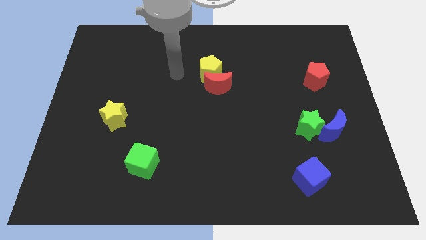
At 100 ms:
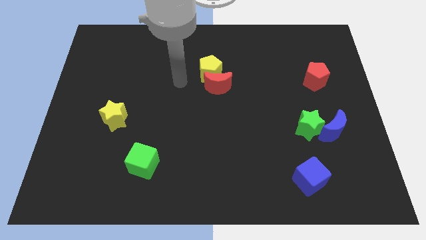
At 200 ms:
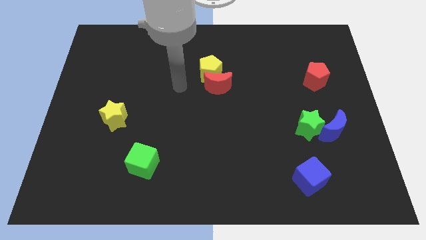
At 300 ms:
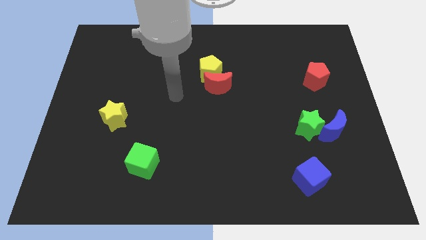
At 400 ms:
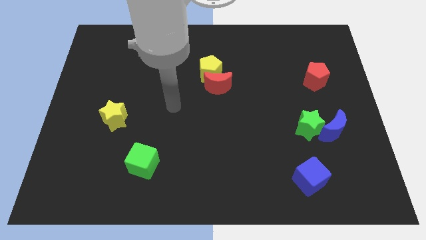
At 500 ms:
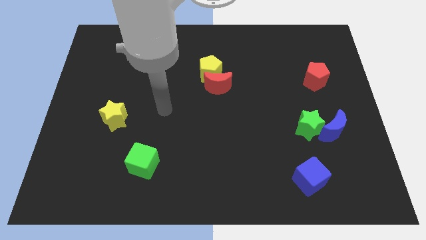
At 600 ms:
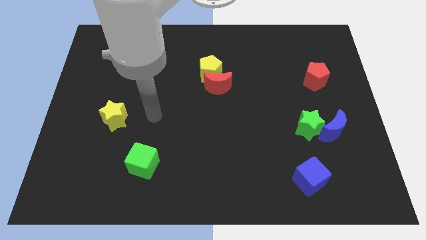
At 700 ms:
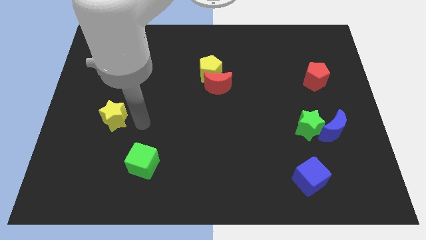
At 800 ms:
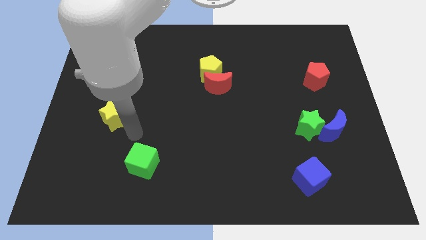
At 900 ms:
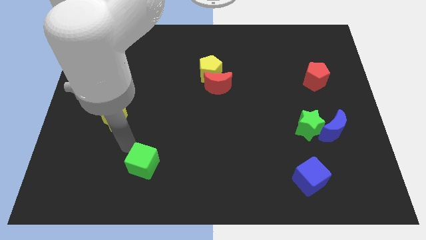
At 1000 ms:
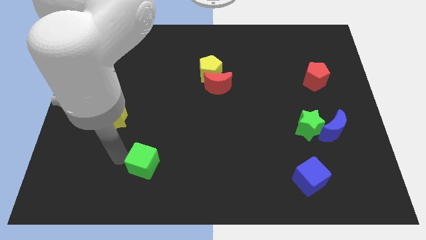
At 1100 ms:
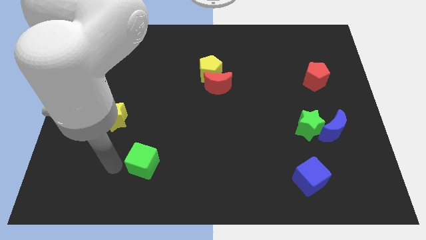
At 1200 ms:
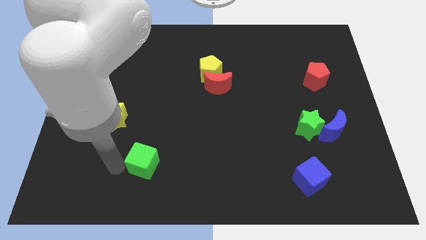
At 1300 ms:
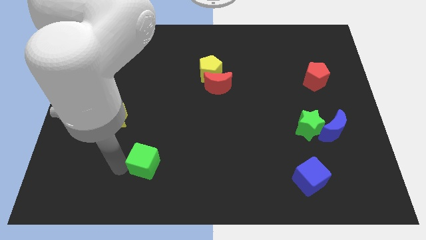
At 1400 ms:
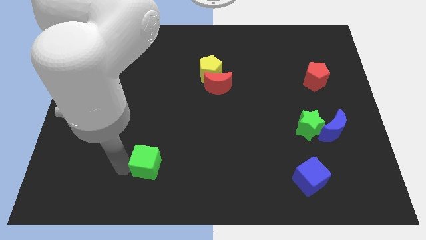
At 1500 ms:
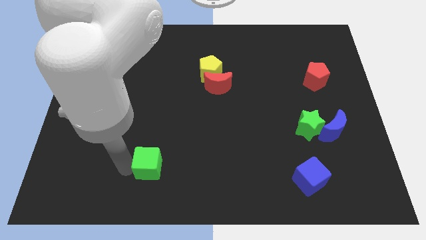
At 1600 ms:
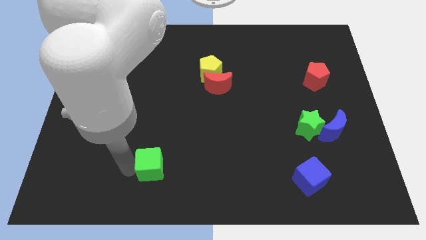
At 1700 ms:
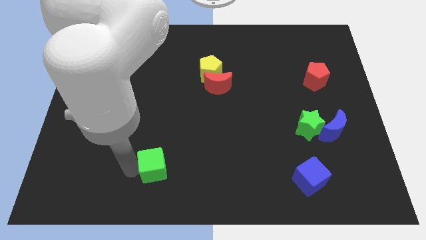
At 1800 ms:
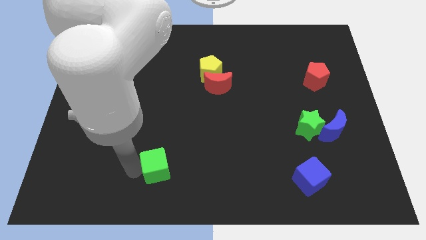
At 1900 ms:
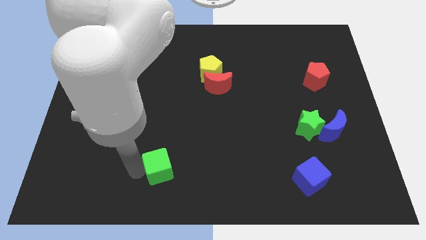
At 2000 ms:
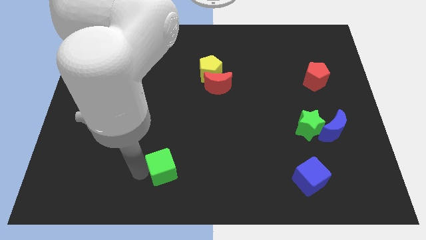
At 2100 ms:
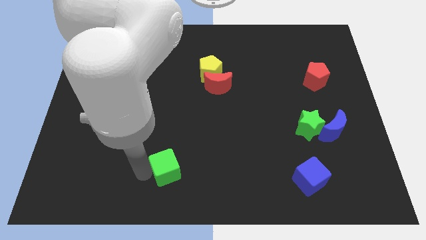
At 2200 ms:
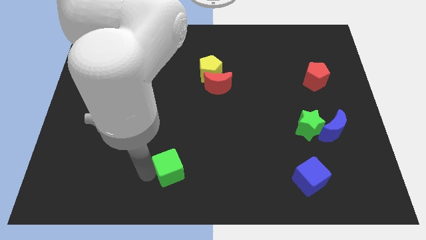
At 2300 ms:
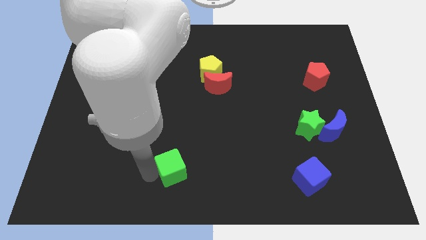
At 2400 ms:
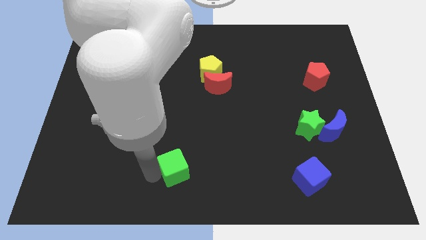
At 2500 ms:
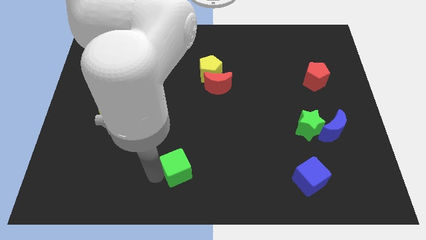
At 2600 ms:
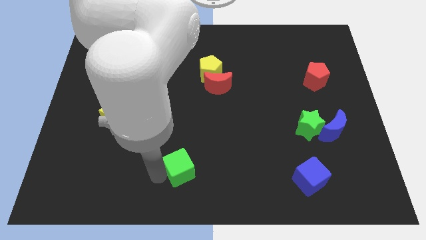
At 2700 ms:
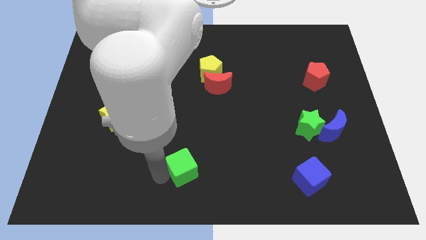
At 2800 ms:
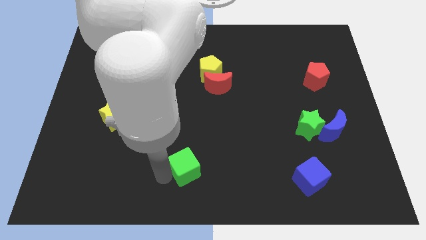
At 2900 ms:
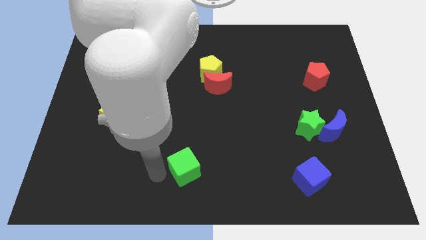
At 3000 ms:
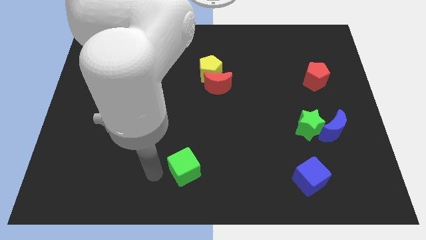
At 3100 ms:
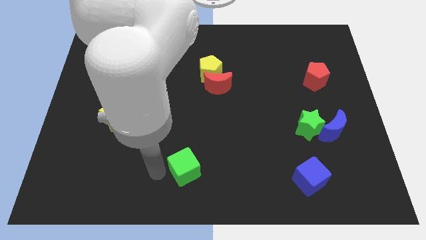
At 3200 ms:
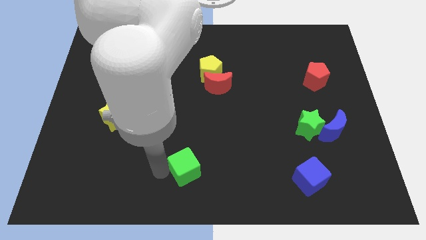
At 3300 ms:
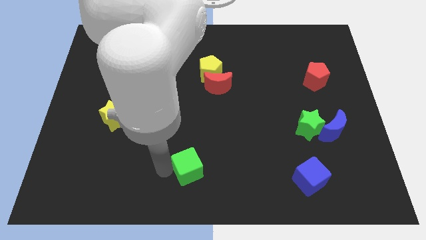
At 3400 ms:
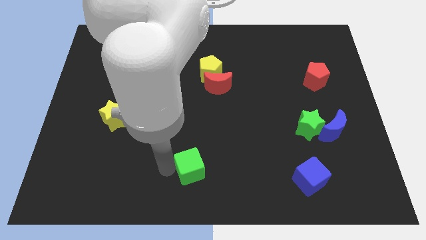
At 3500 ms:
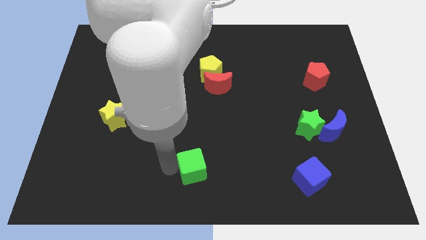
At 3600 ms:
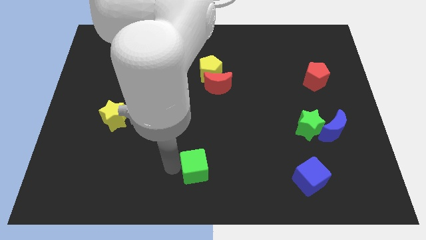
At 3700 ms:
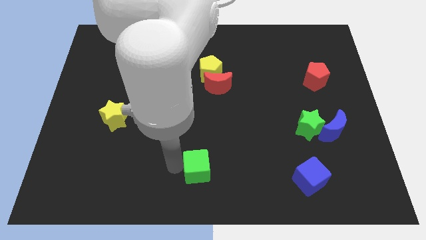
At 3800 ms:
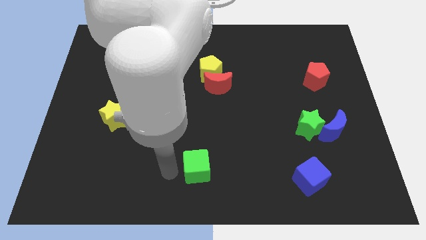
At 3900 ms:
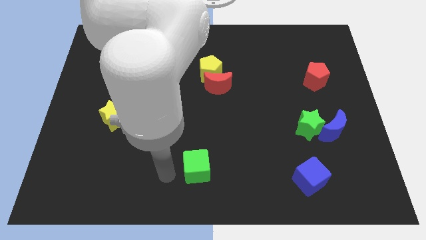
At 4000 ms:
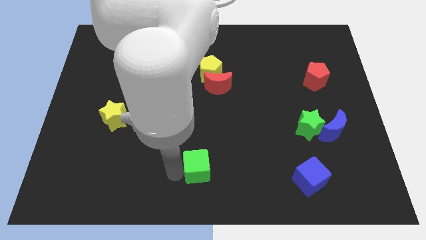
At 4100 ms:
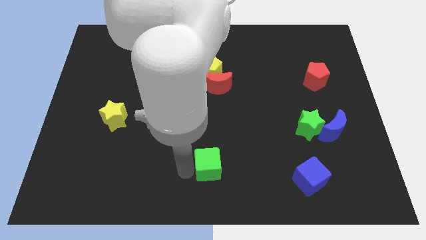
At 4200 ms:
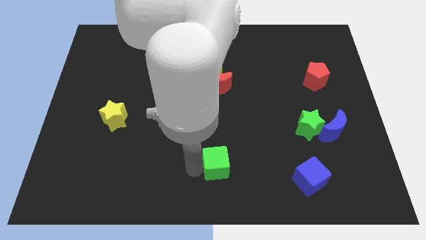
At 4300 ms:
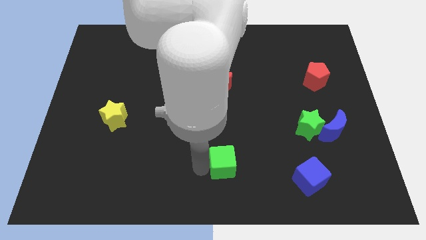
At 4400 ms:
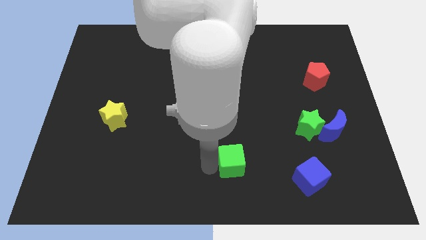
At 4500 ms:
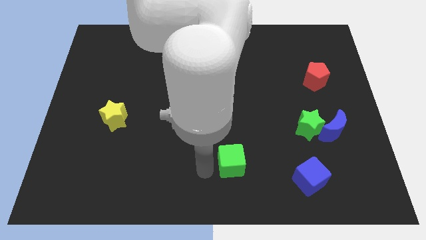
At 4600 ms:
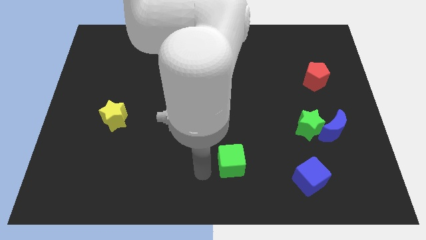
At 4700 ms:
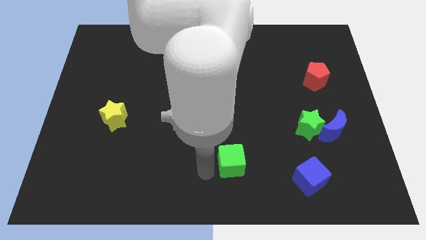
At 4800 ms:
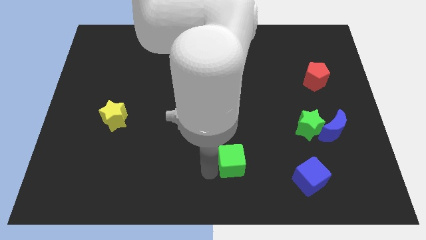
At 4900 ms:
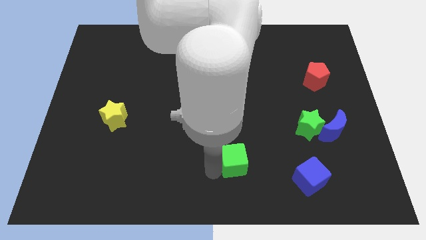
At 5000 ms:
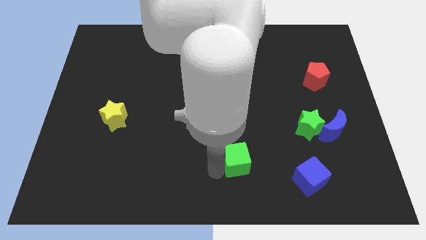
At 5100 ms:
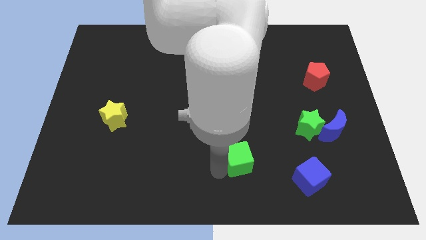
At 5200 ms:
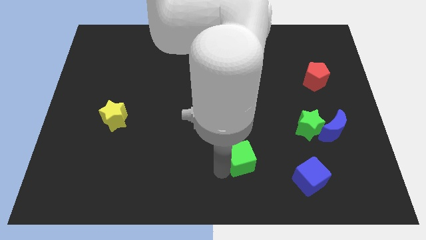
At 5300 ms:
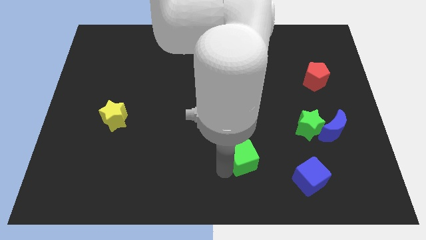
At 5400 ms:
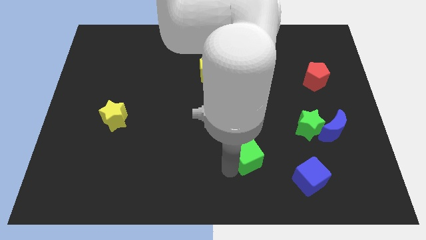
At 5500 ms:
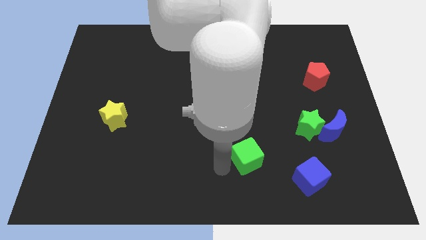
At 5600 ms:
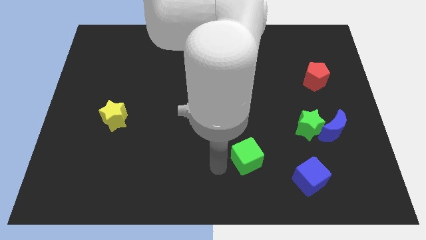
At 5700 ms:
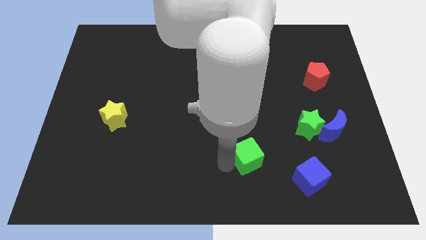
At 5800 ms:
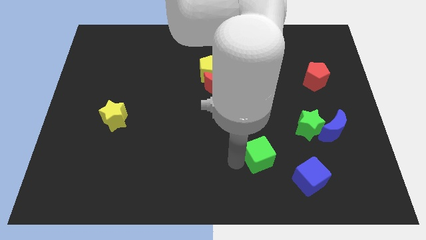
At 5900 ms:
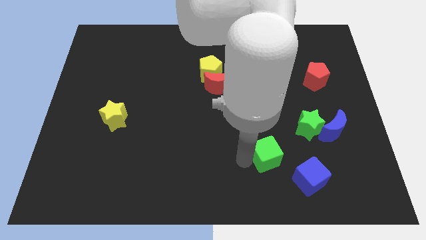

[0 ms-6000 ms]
slide the green cube to the bottom left side of the green star

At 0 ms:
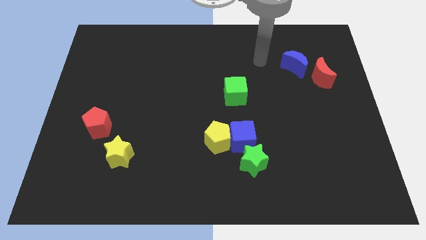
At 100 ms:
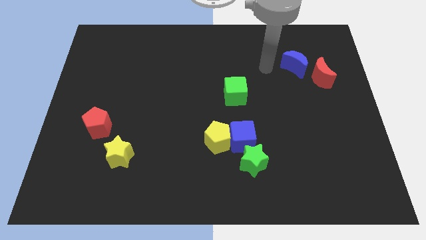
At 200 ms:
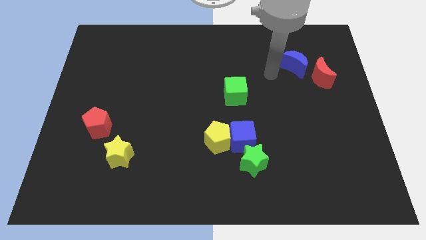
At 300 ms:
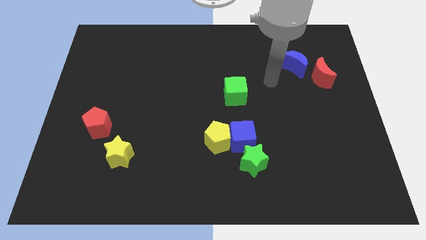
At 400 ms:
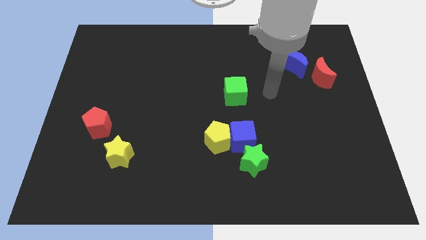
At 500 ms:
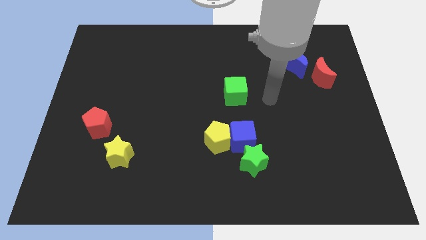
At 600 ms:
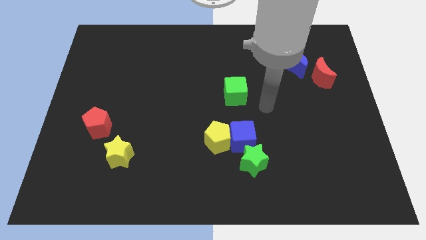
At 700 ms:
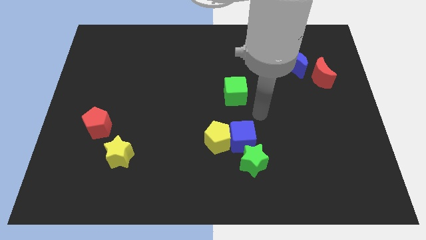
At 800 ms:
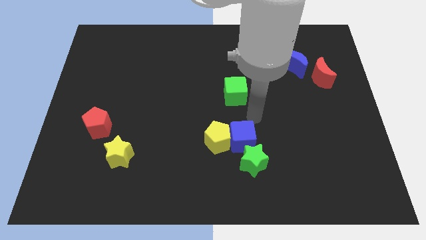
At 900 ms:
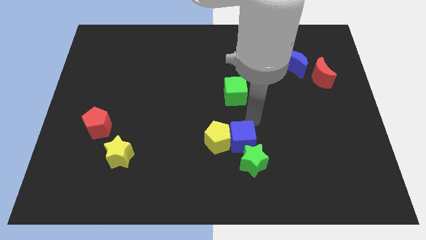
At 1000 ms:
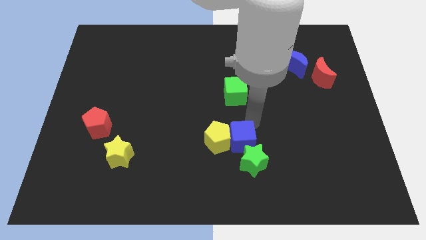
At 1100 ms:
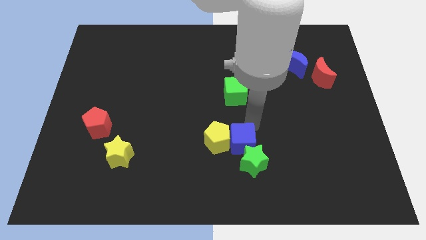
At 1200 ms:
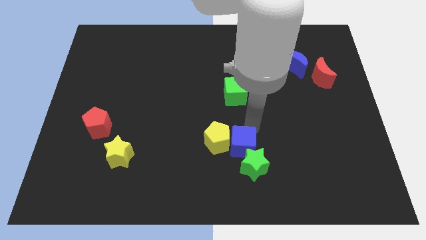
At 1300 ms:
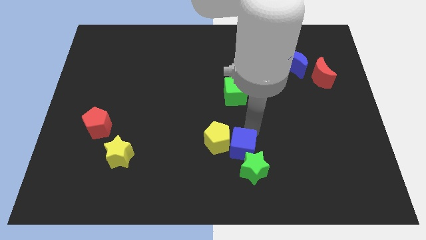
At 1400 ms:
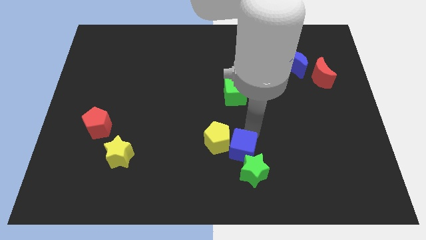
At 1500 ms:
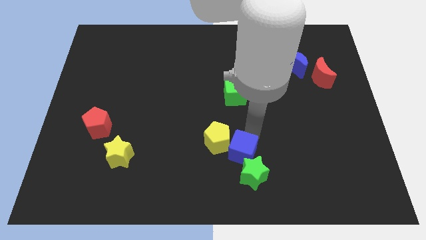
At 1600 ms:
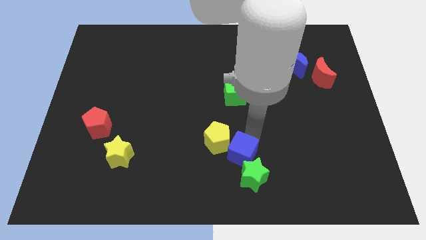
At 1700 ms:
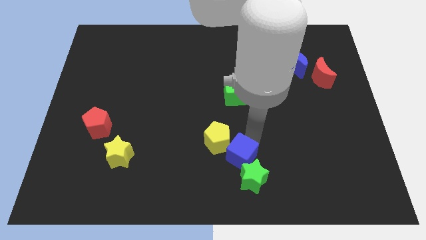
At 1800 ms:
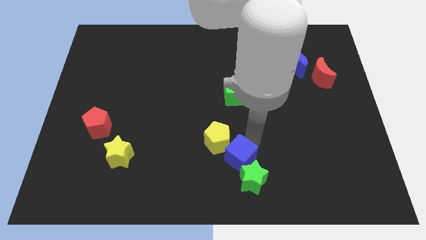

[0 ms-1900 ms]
move the blue cube below the yellow pentagon
